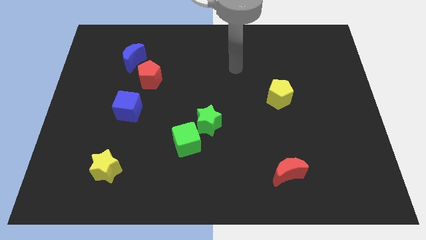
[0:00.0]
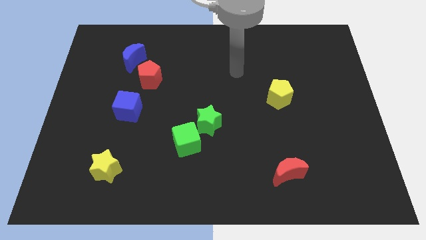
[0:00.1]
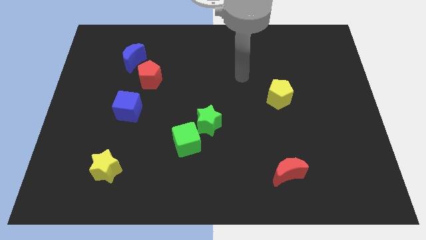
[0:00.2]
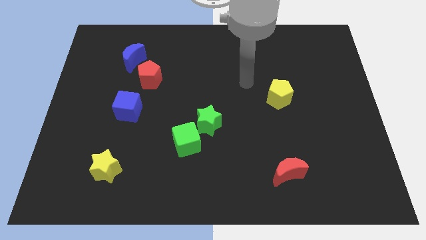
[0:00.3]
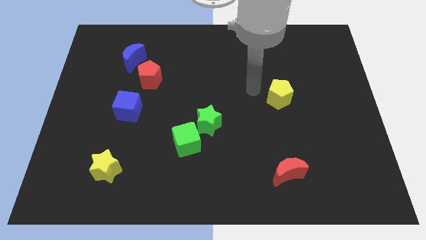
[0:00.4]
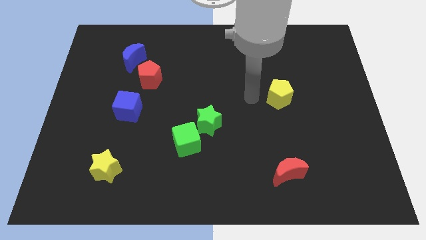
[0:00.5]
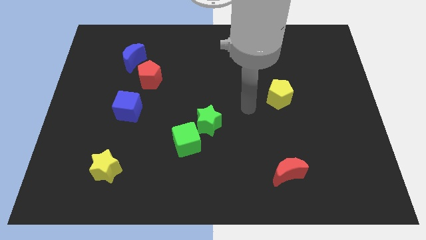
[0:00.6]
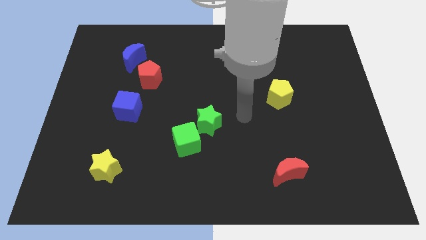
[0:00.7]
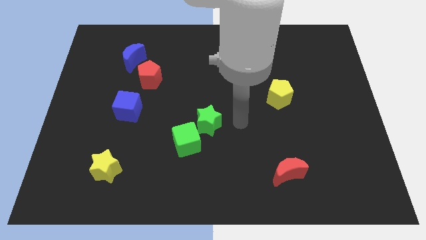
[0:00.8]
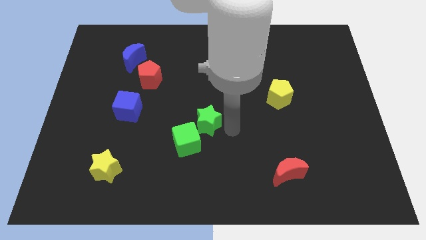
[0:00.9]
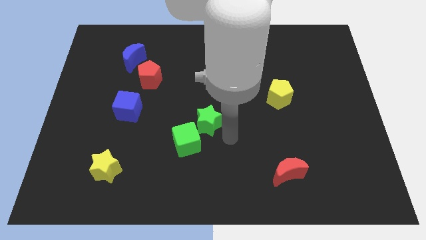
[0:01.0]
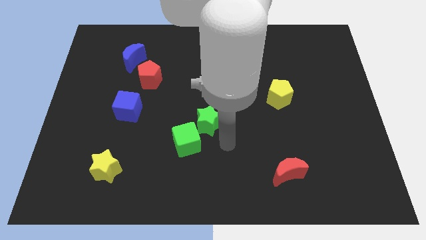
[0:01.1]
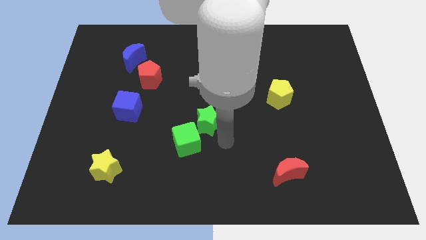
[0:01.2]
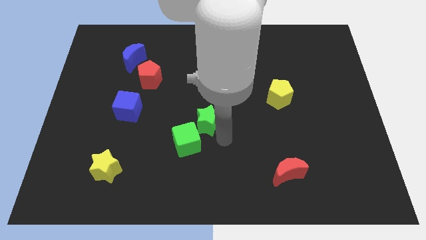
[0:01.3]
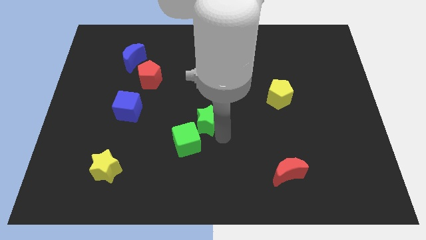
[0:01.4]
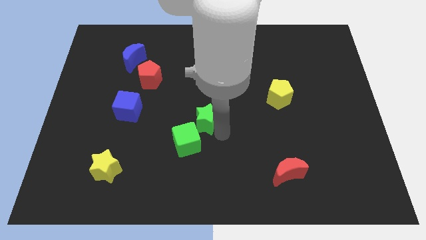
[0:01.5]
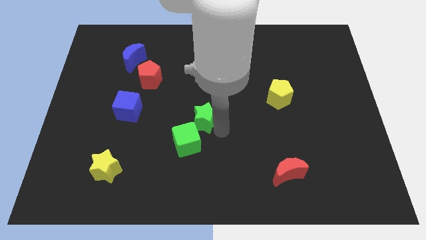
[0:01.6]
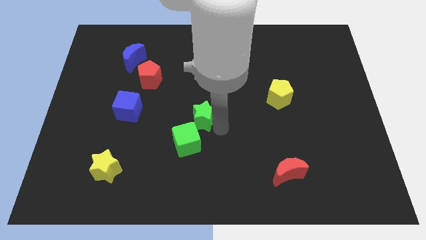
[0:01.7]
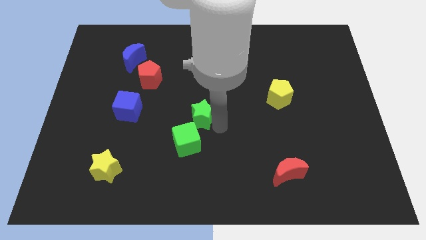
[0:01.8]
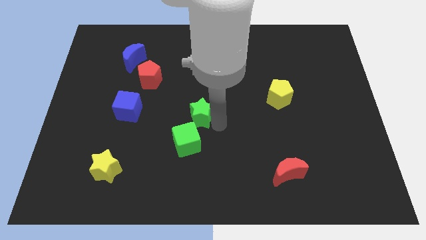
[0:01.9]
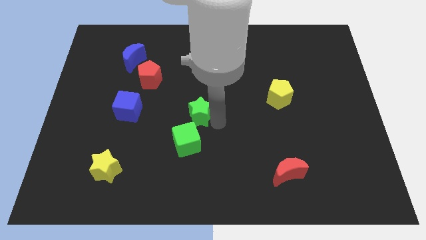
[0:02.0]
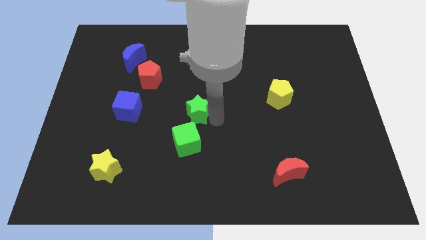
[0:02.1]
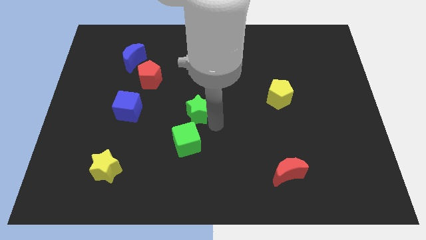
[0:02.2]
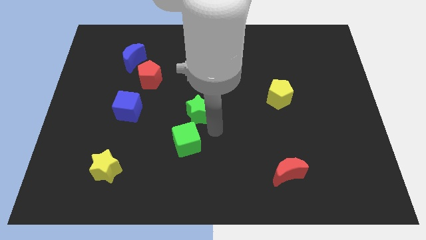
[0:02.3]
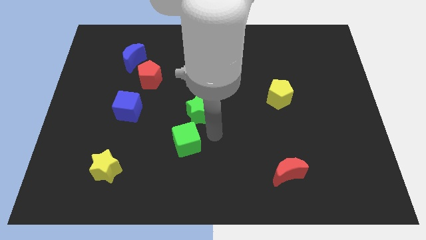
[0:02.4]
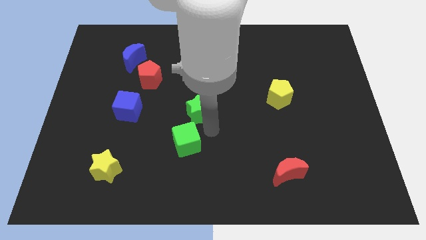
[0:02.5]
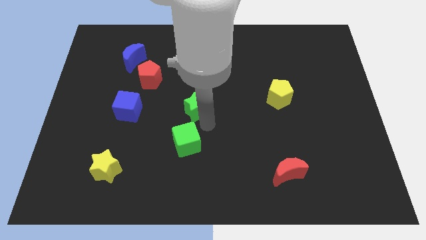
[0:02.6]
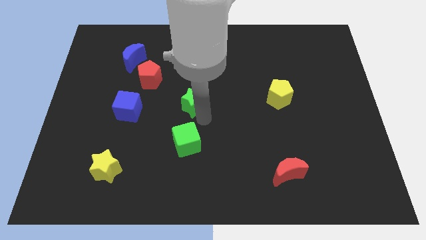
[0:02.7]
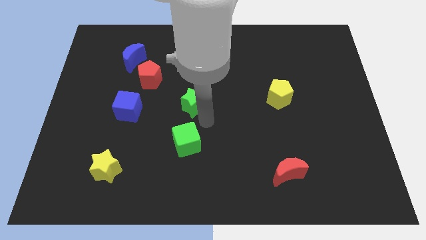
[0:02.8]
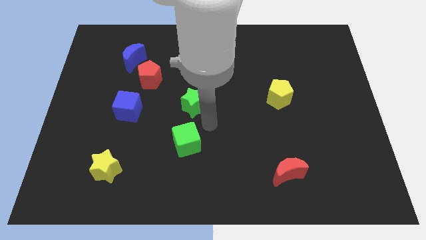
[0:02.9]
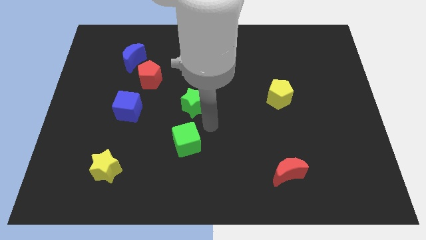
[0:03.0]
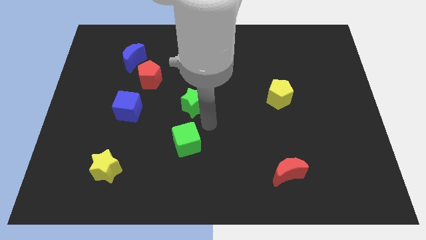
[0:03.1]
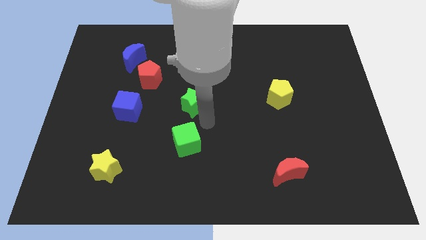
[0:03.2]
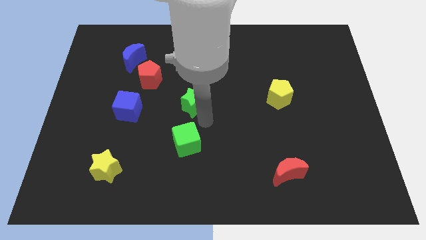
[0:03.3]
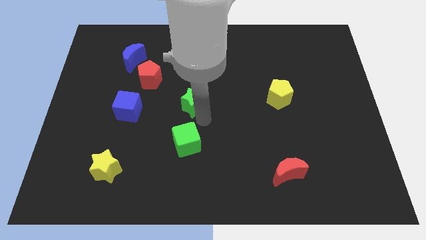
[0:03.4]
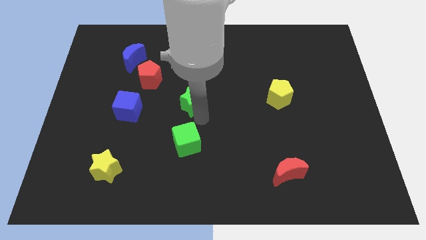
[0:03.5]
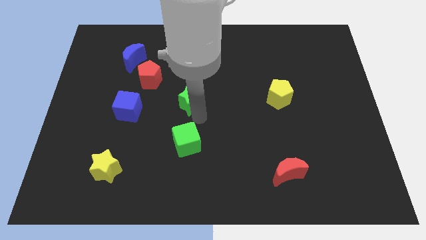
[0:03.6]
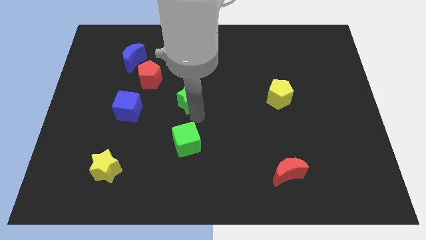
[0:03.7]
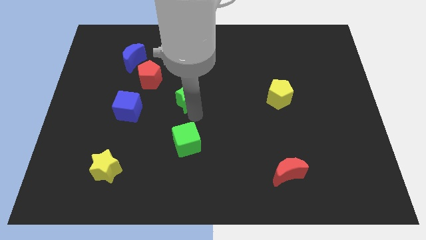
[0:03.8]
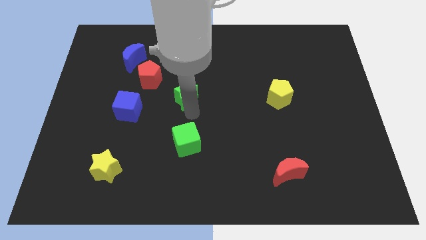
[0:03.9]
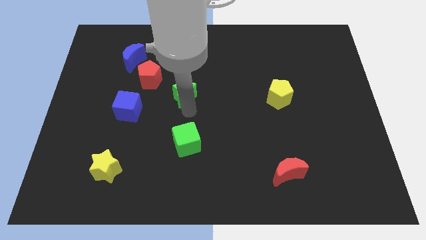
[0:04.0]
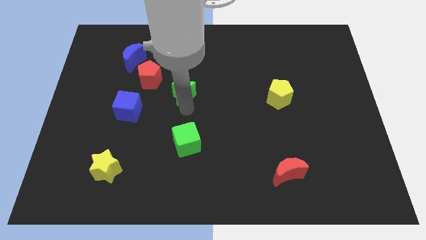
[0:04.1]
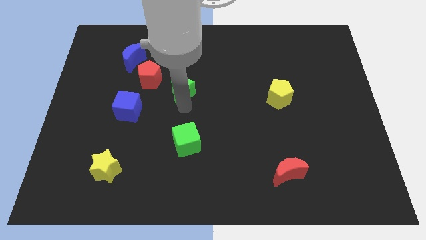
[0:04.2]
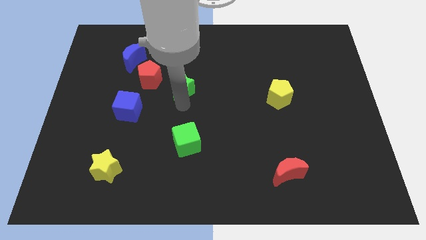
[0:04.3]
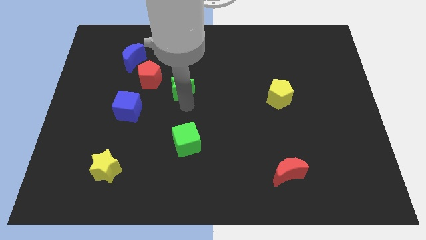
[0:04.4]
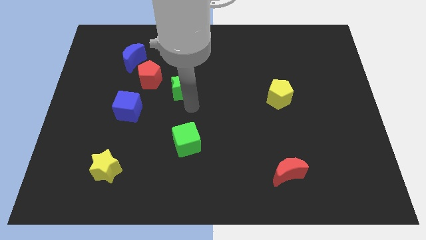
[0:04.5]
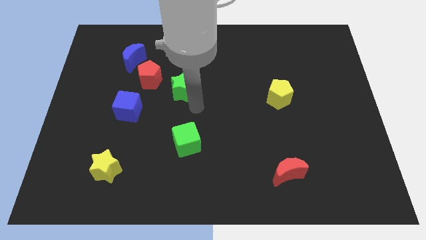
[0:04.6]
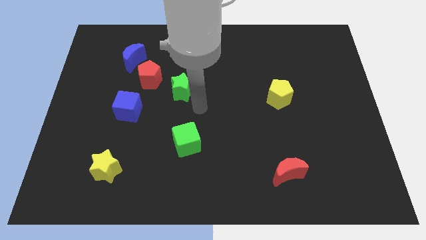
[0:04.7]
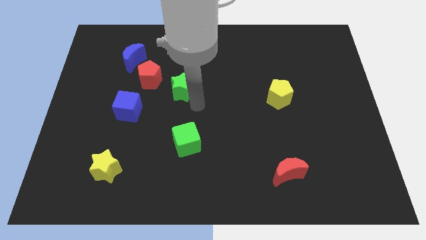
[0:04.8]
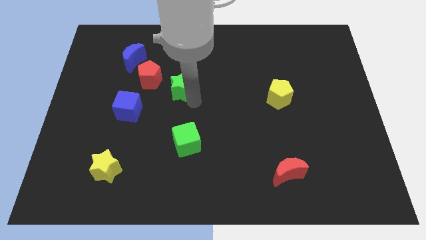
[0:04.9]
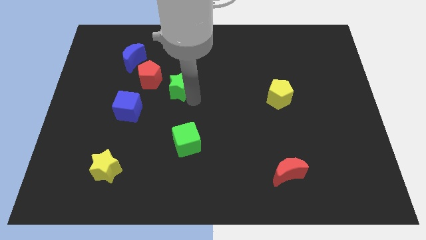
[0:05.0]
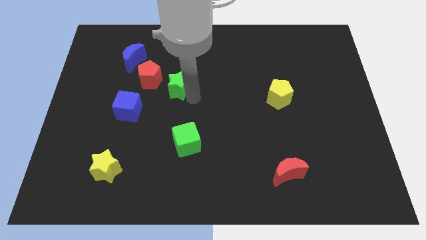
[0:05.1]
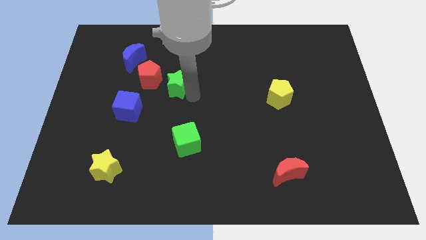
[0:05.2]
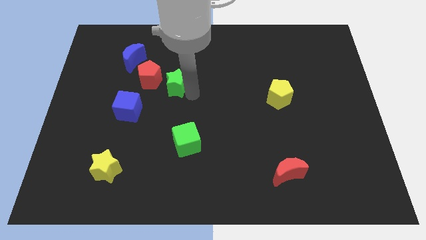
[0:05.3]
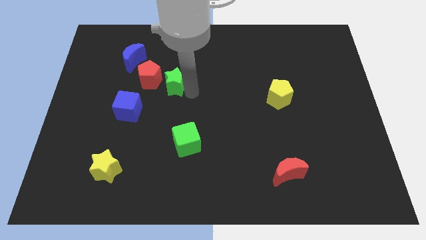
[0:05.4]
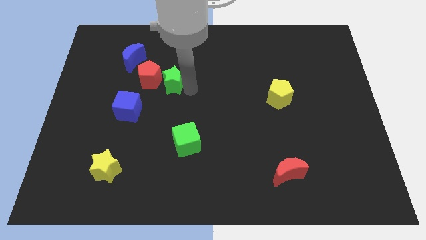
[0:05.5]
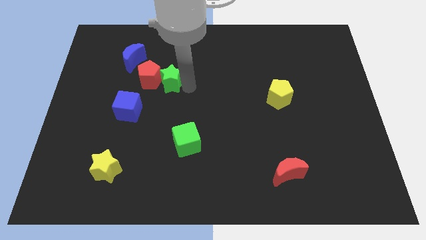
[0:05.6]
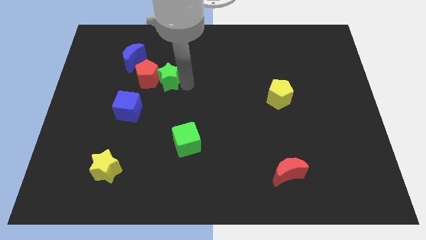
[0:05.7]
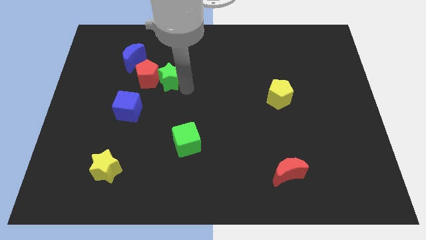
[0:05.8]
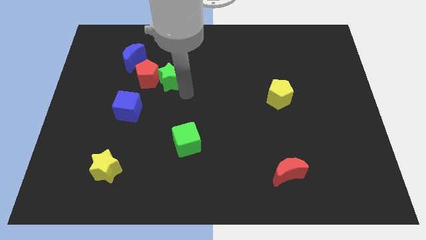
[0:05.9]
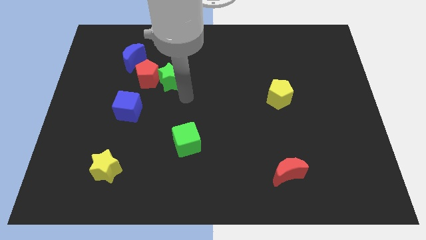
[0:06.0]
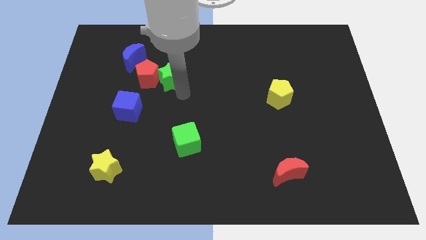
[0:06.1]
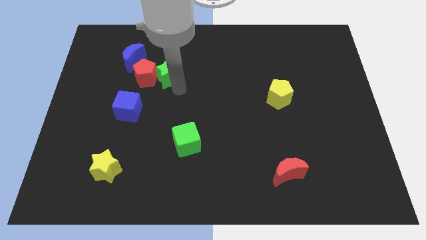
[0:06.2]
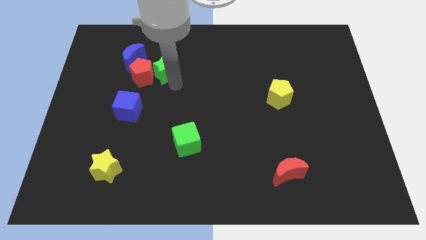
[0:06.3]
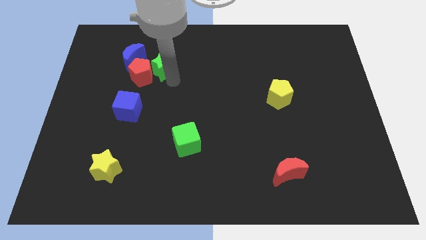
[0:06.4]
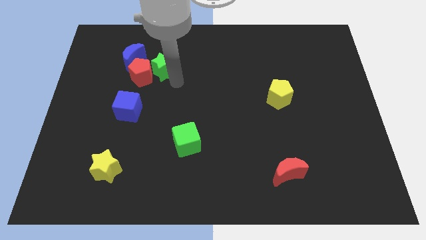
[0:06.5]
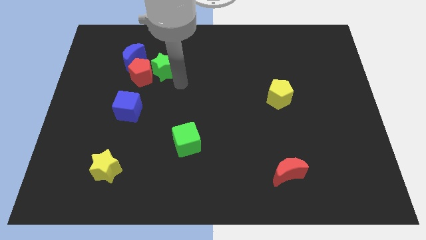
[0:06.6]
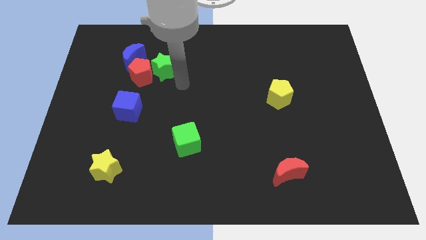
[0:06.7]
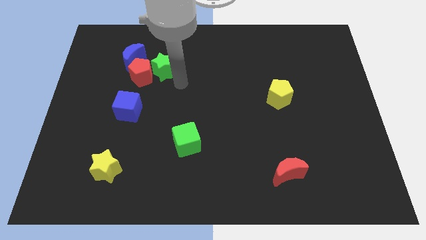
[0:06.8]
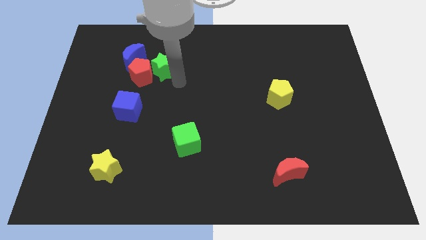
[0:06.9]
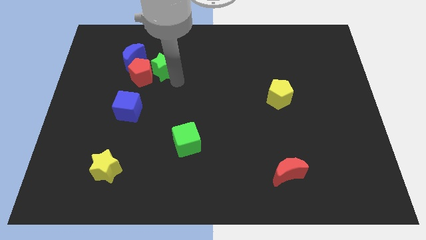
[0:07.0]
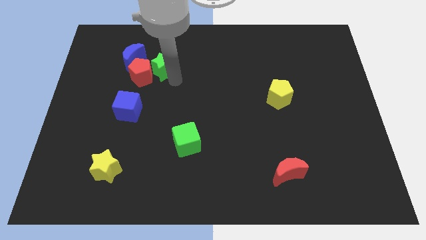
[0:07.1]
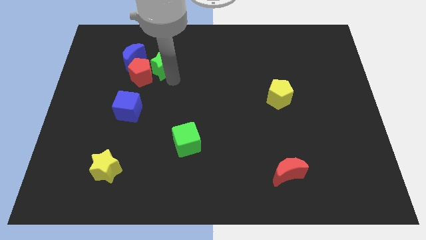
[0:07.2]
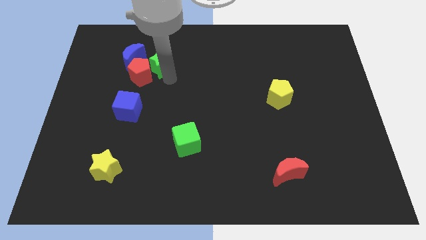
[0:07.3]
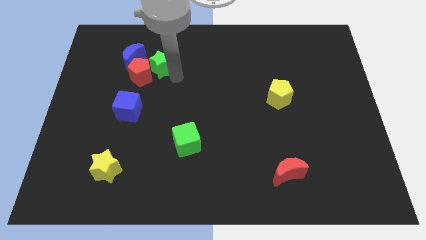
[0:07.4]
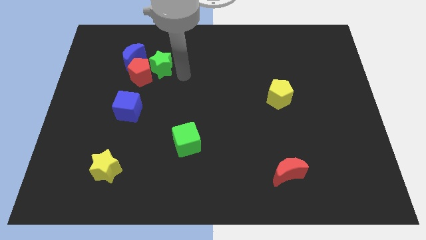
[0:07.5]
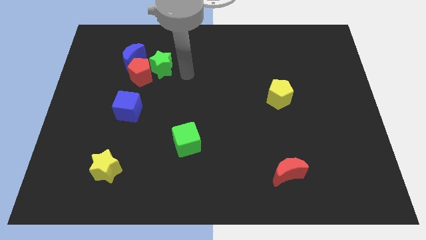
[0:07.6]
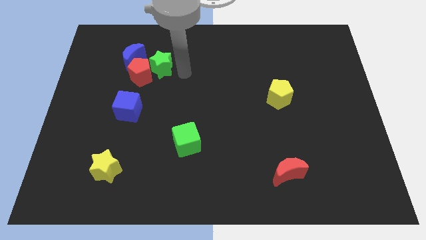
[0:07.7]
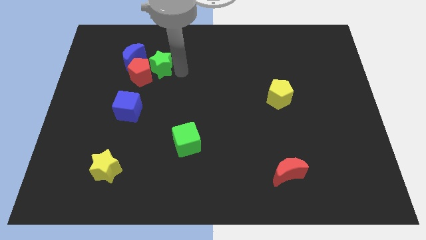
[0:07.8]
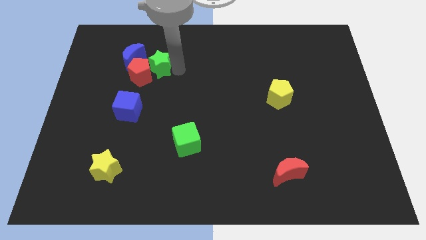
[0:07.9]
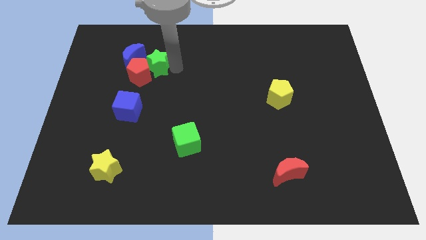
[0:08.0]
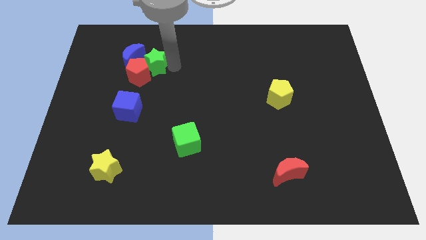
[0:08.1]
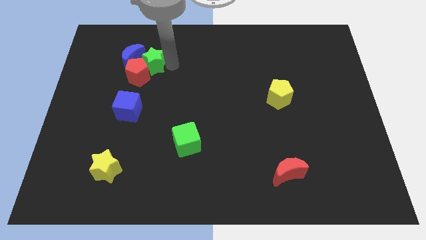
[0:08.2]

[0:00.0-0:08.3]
push the green star close to the blue moon
